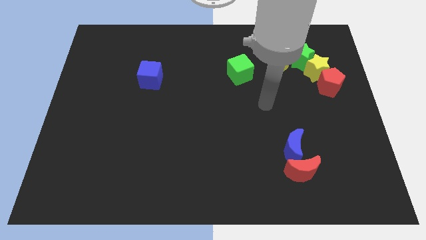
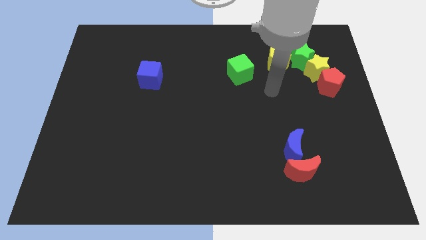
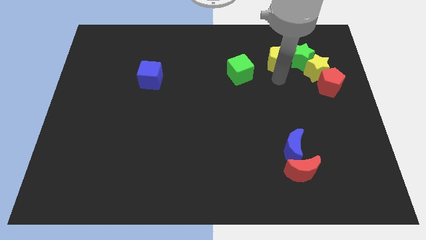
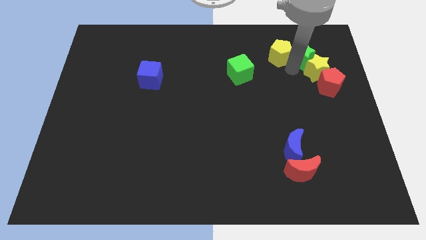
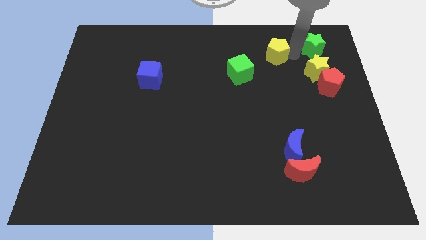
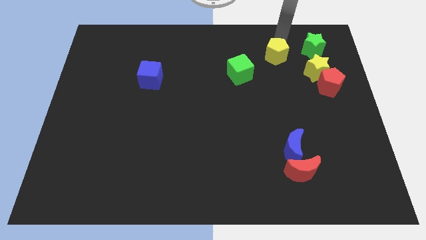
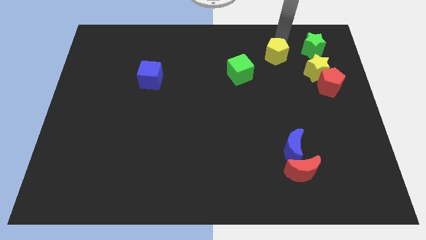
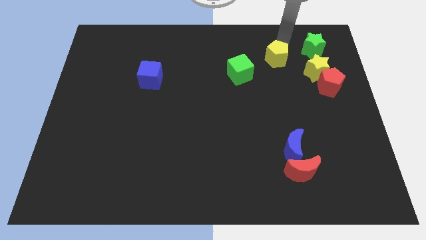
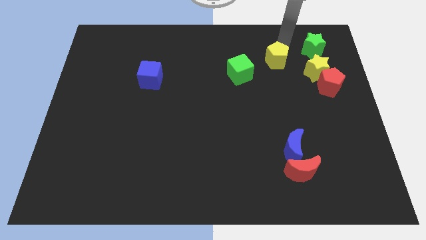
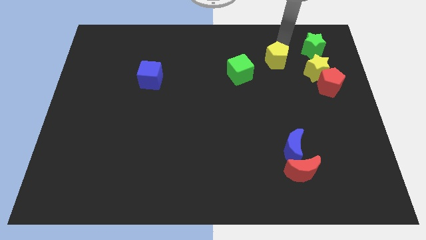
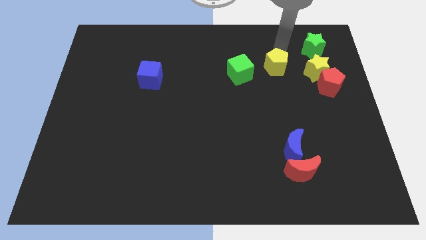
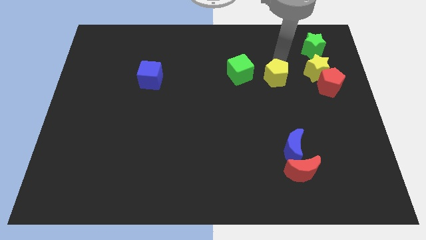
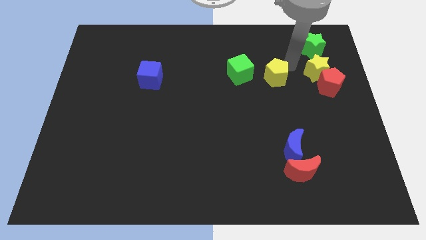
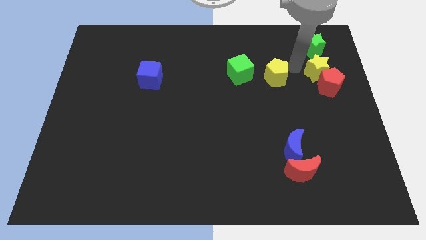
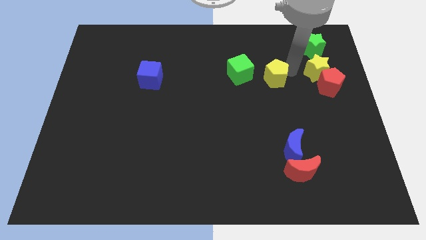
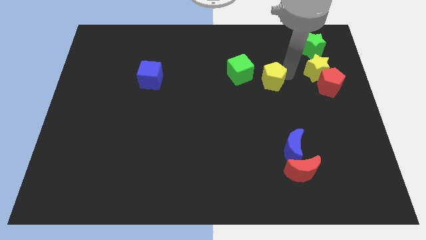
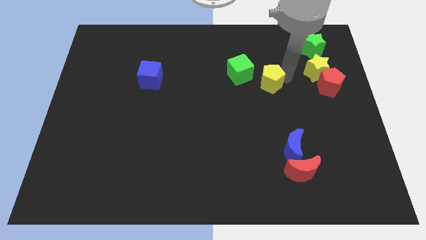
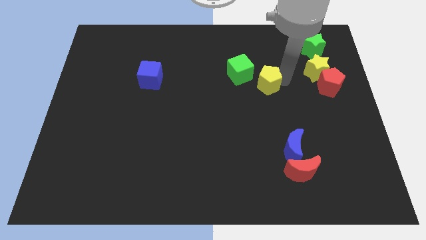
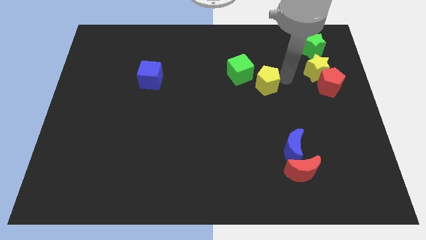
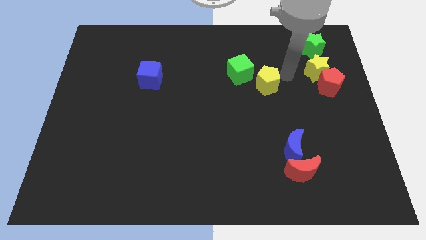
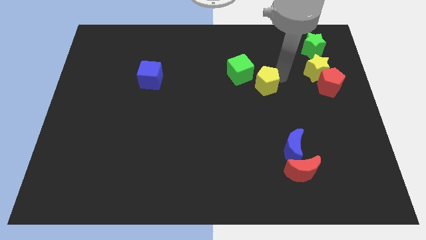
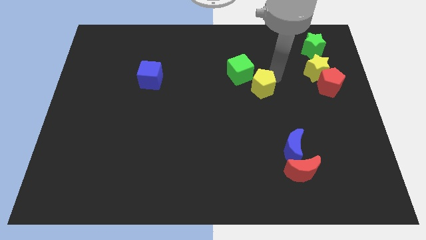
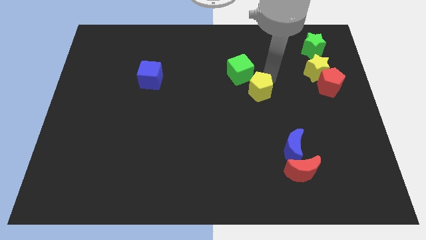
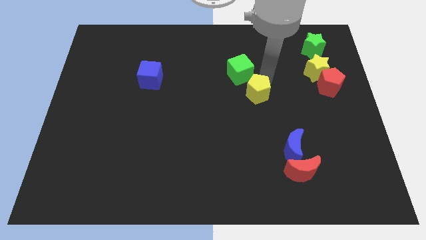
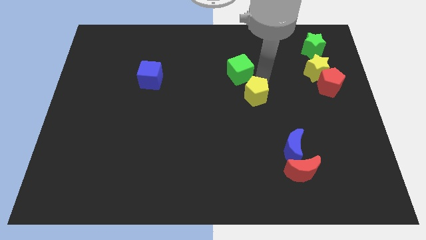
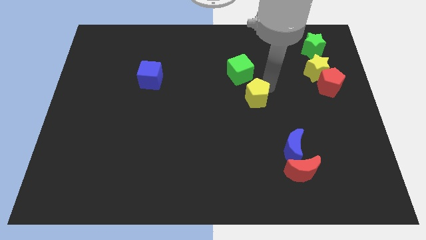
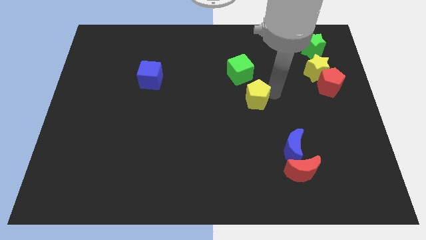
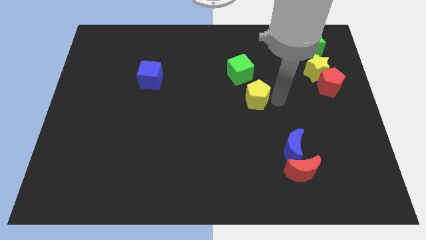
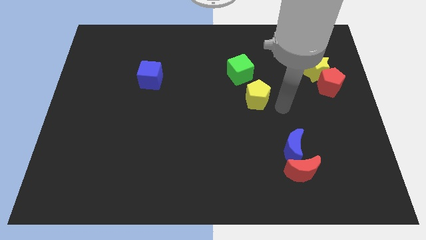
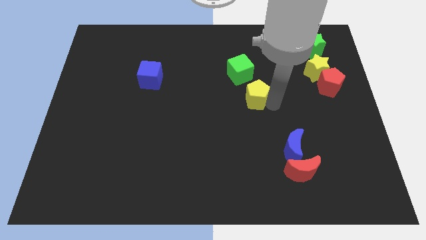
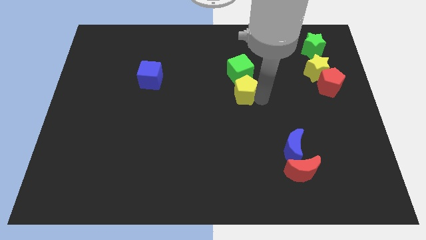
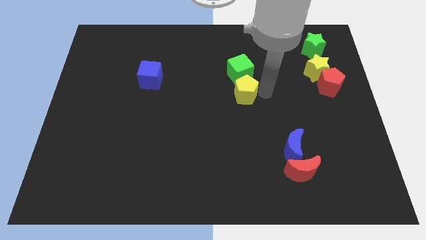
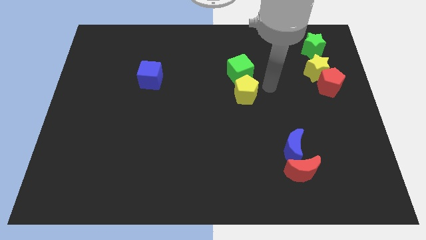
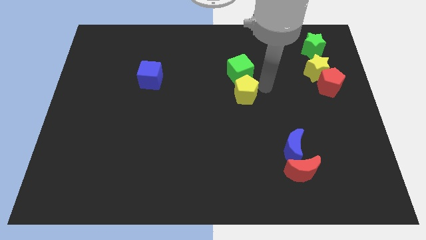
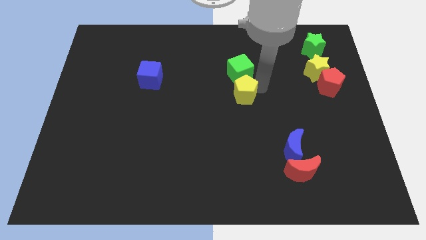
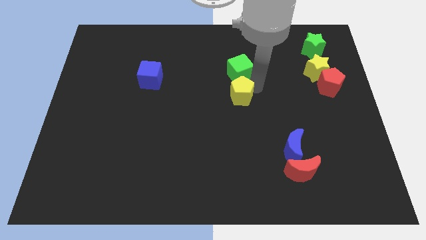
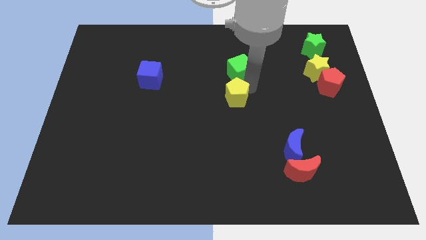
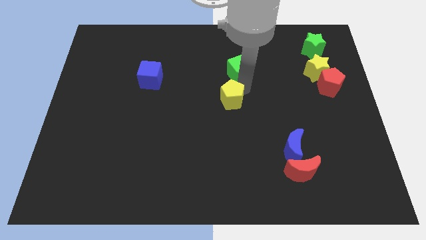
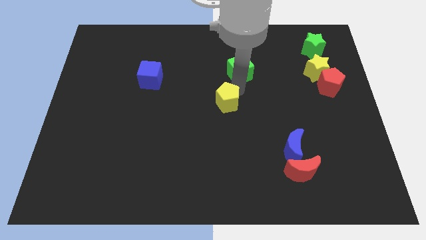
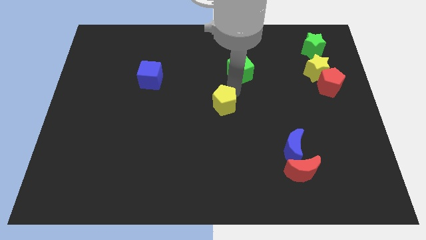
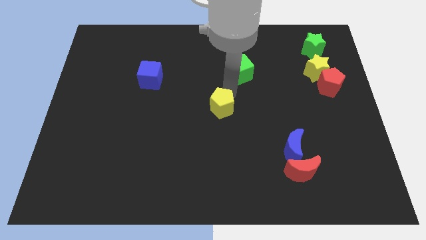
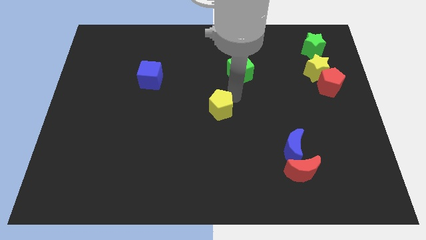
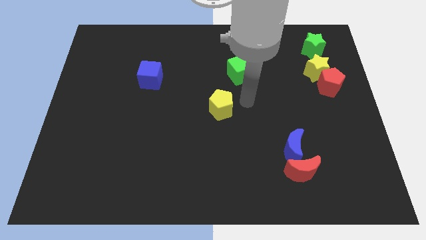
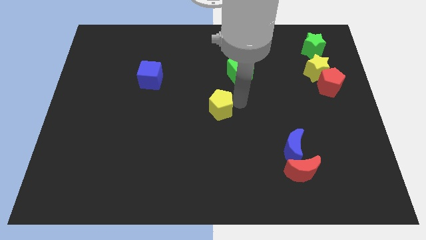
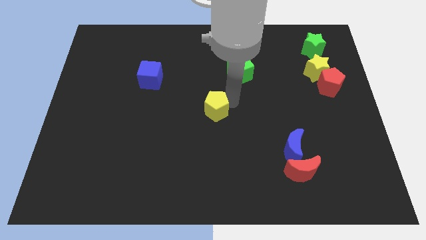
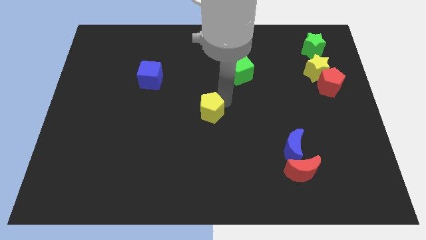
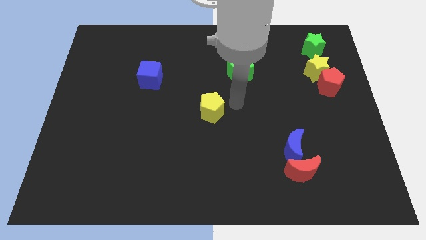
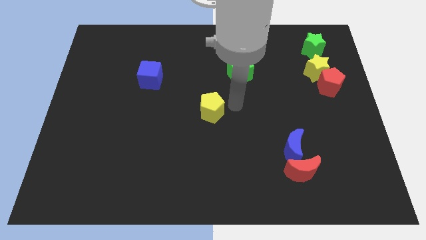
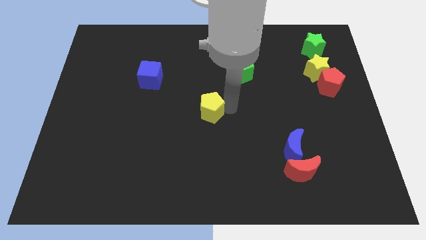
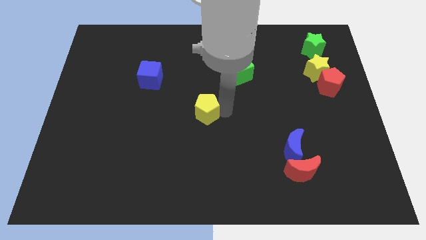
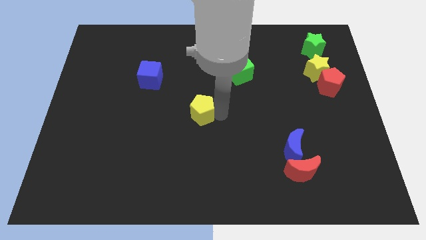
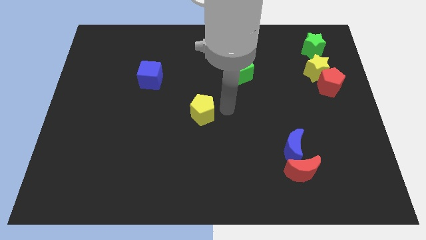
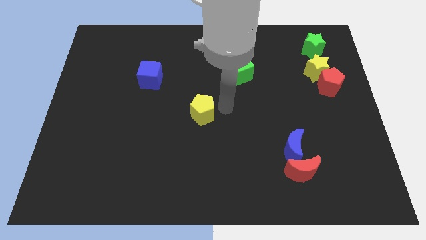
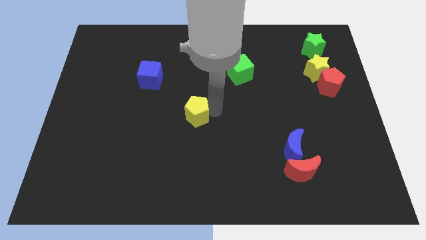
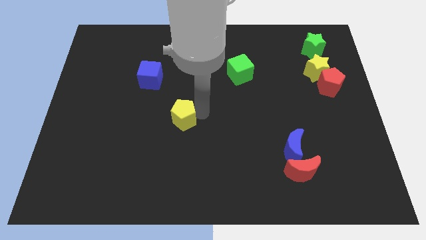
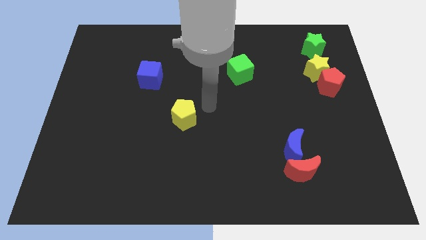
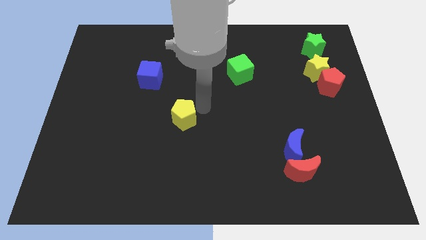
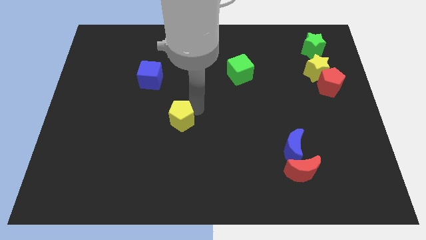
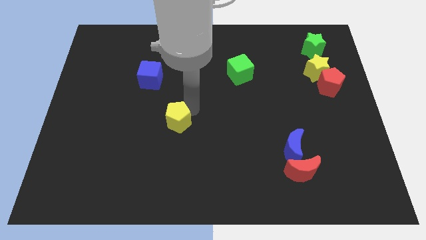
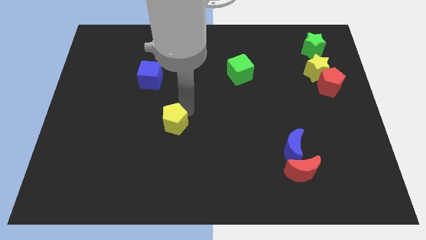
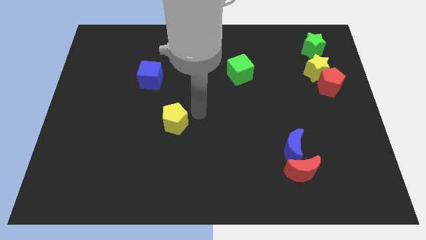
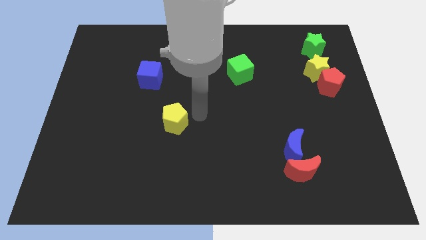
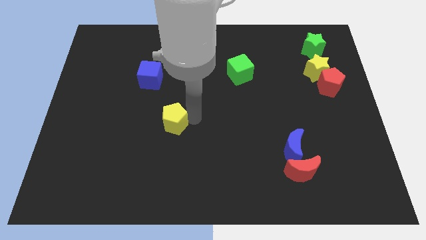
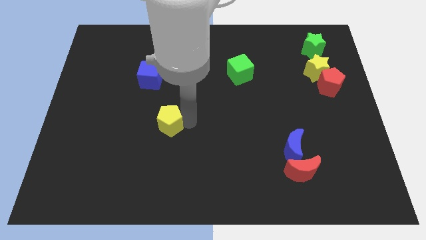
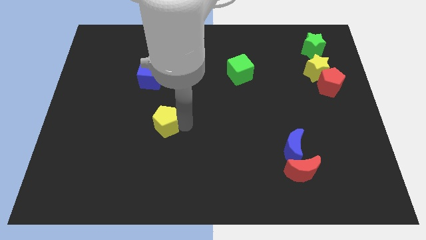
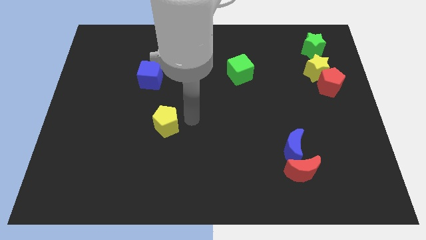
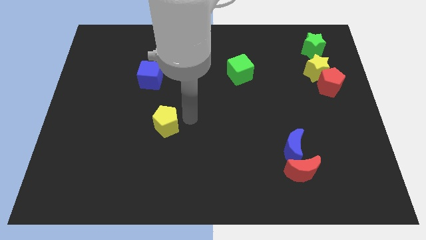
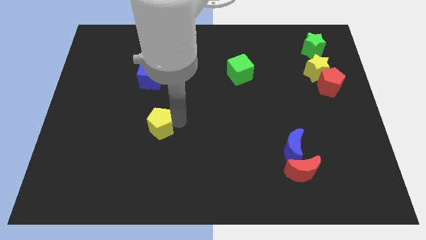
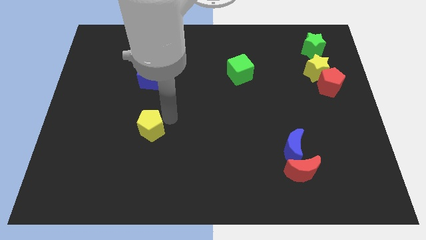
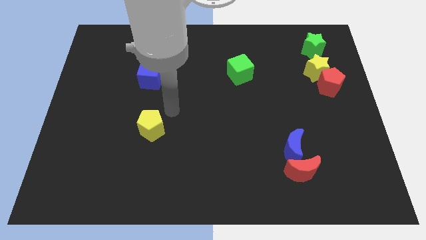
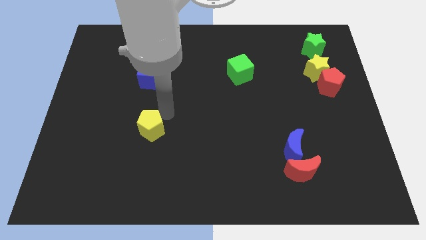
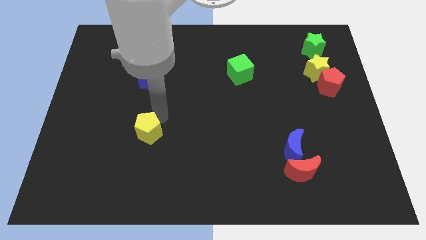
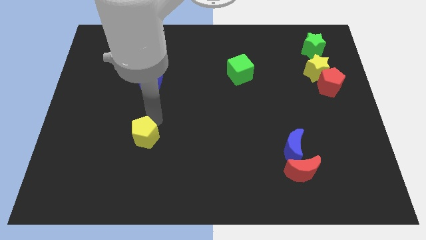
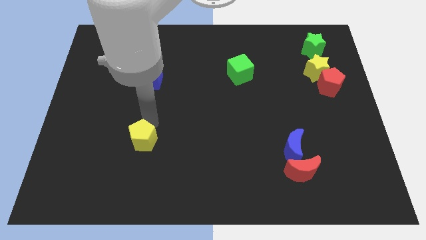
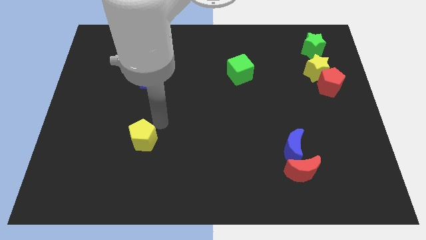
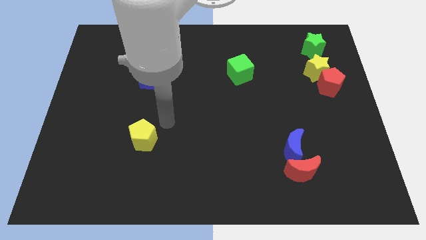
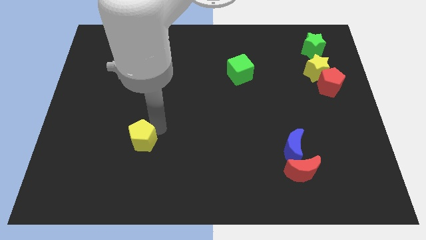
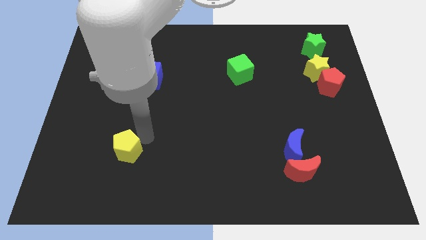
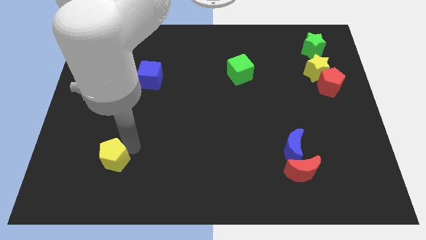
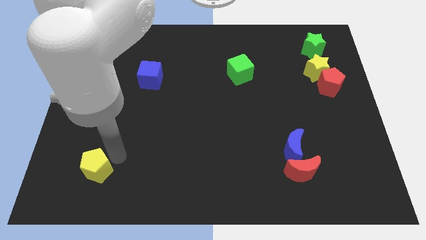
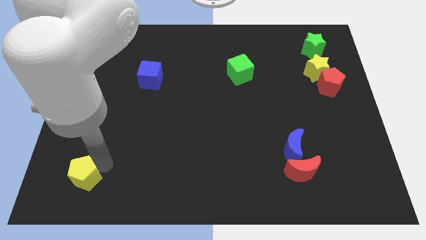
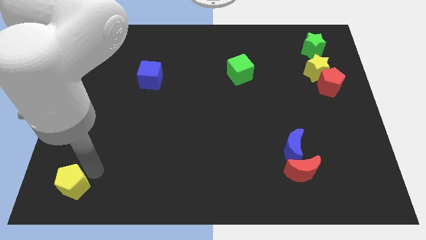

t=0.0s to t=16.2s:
push the yellow pentagon to the bottom left of the board
